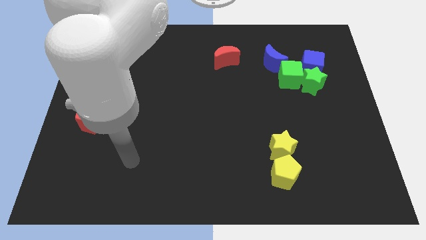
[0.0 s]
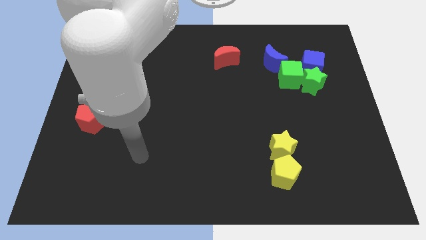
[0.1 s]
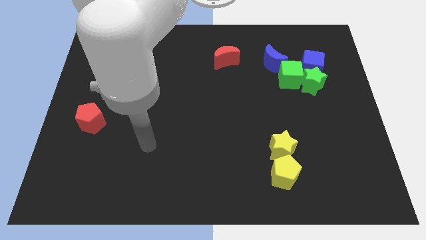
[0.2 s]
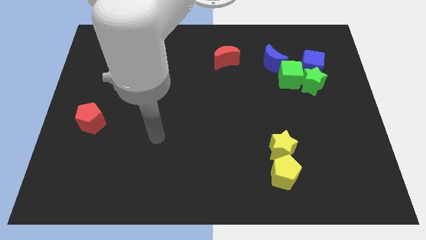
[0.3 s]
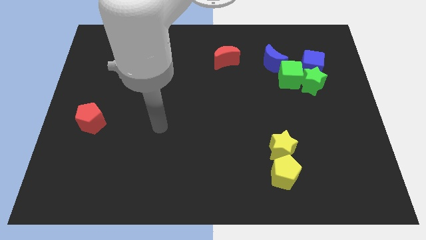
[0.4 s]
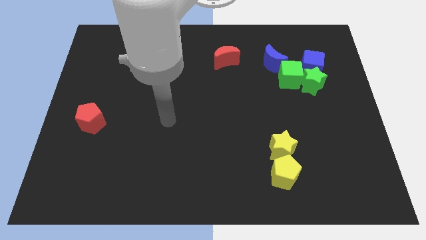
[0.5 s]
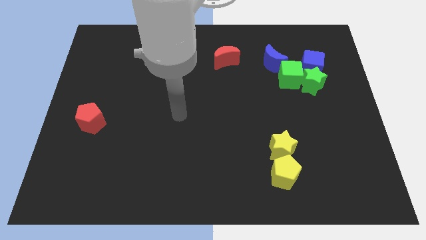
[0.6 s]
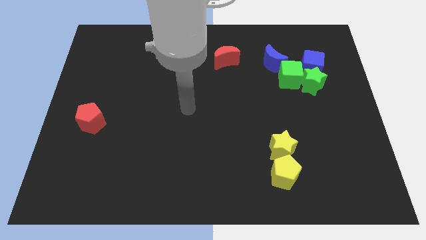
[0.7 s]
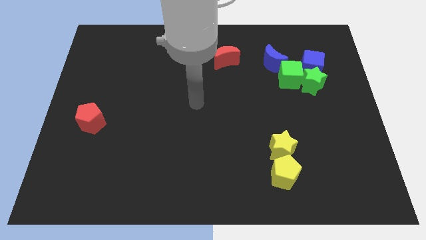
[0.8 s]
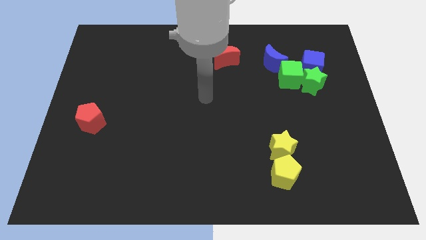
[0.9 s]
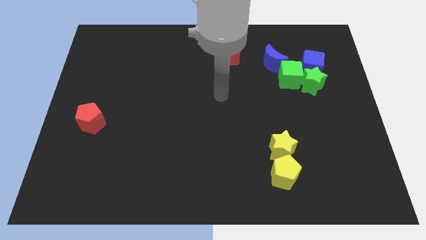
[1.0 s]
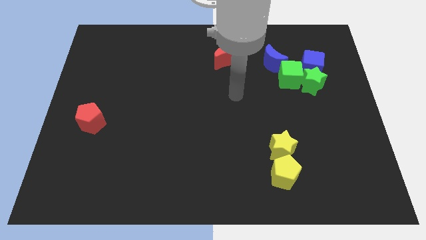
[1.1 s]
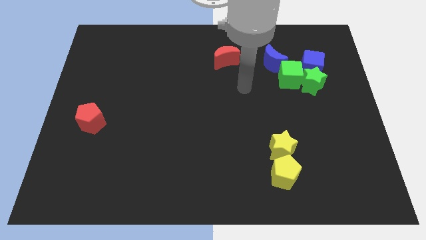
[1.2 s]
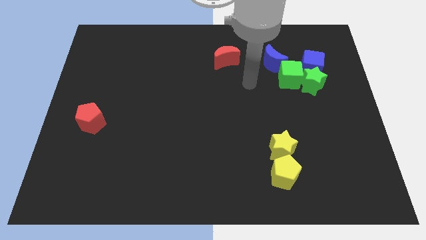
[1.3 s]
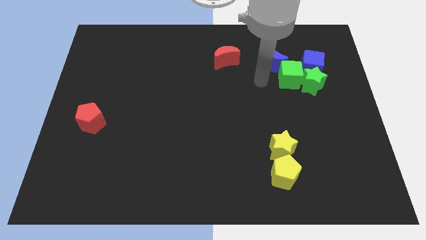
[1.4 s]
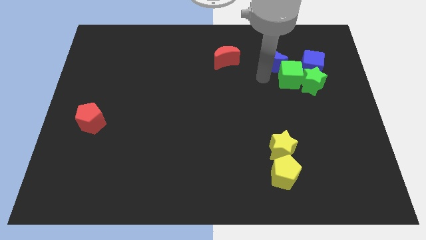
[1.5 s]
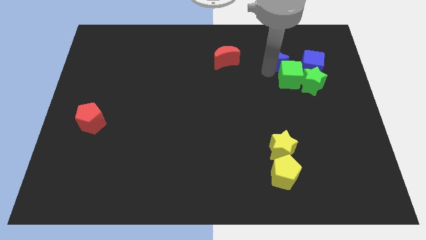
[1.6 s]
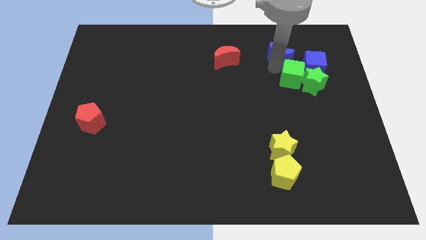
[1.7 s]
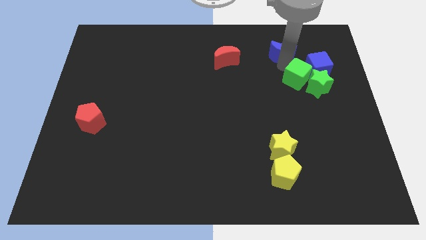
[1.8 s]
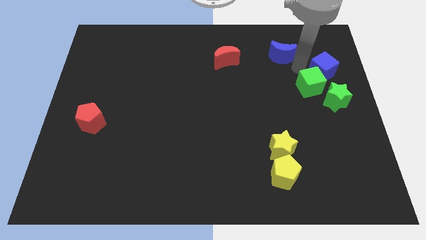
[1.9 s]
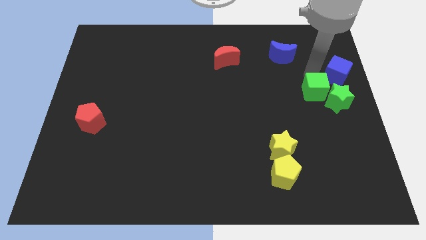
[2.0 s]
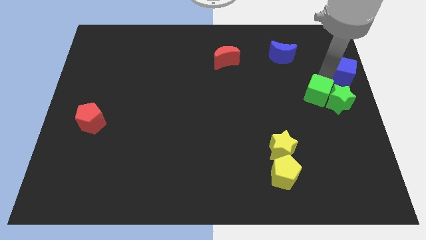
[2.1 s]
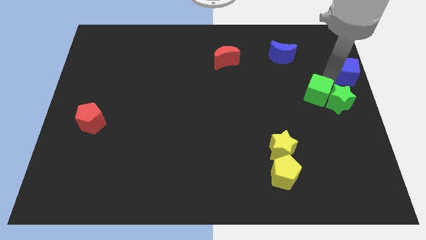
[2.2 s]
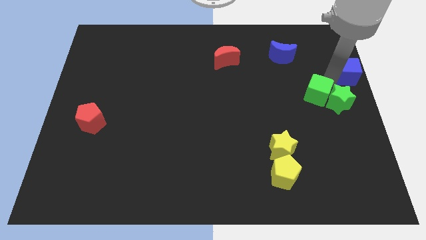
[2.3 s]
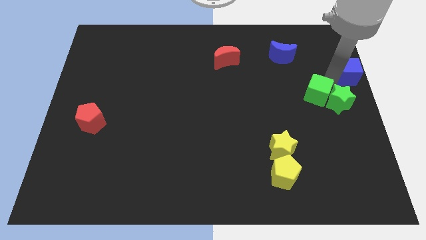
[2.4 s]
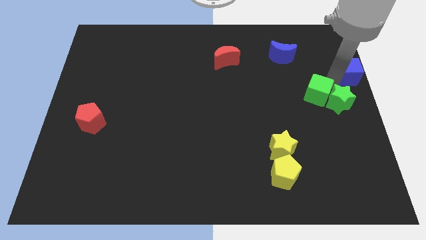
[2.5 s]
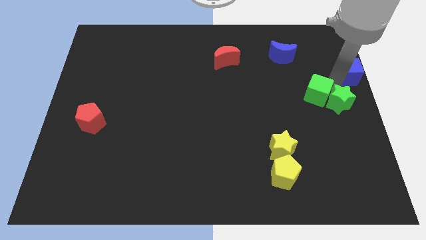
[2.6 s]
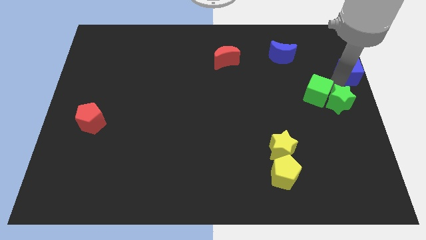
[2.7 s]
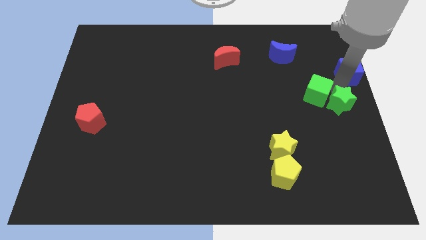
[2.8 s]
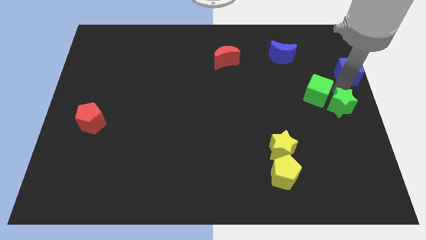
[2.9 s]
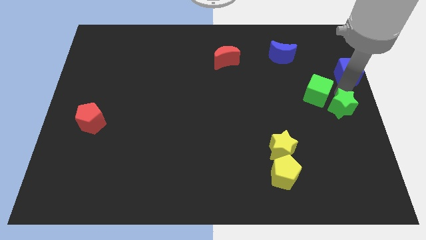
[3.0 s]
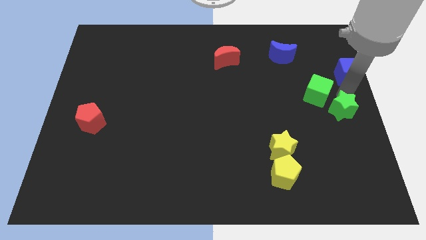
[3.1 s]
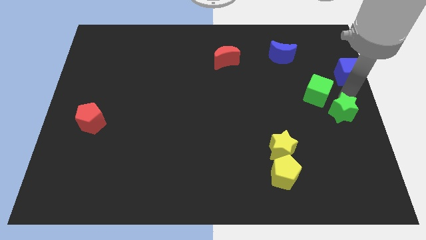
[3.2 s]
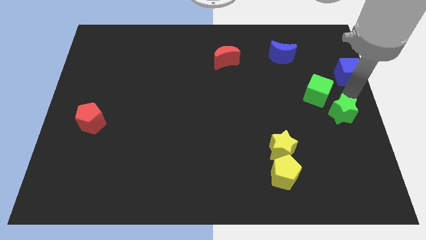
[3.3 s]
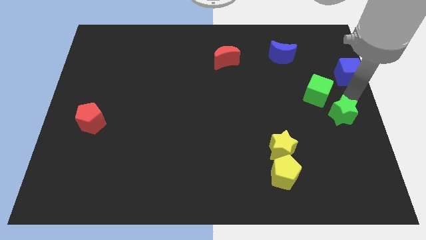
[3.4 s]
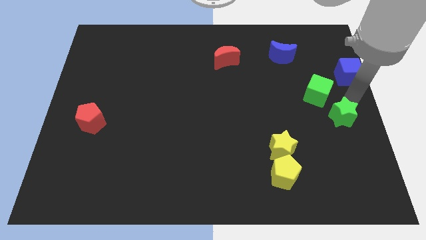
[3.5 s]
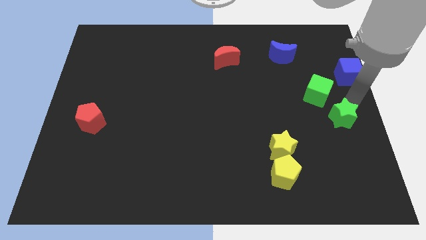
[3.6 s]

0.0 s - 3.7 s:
separate the green star from the blue cube and green cube

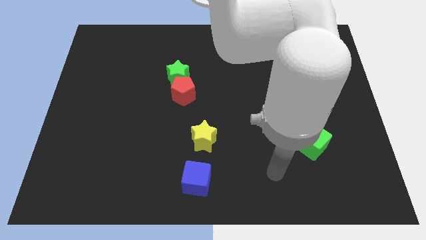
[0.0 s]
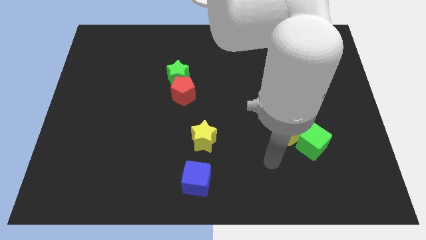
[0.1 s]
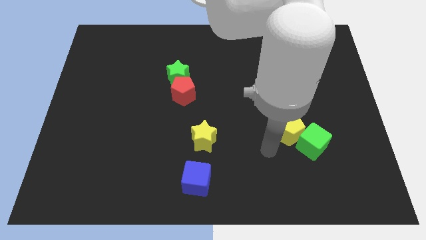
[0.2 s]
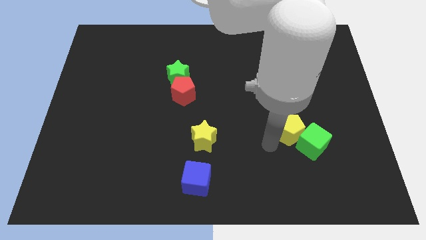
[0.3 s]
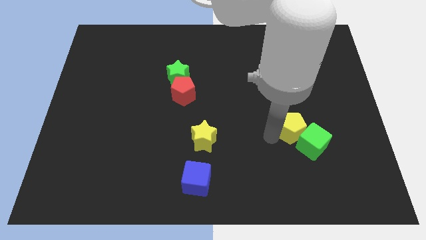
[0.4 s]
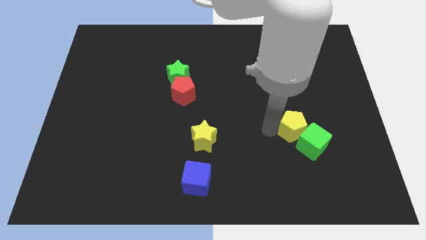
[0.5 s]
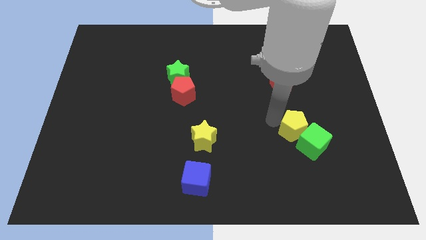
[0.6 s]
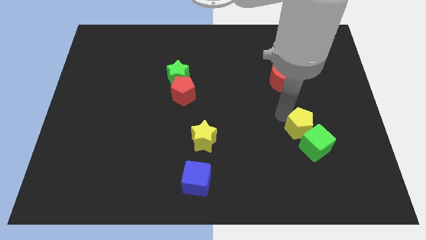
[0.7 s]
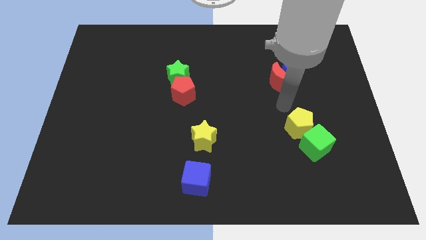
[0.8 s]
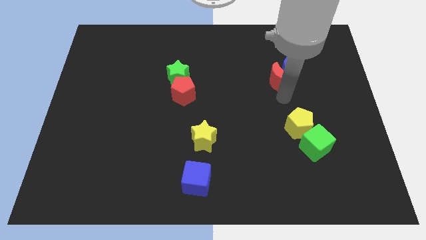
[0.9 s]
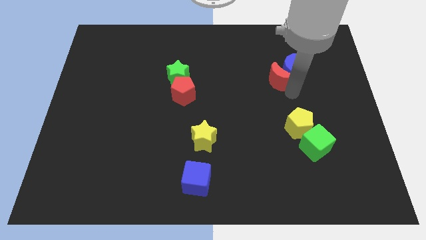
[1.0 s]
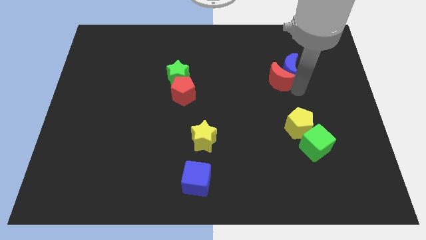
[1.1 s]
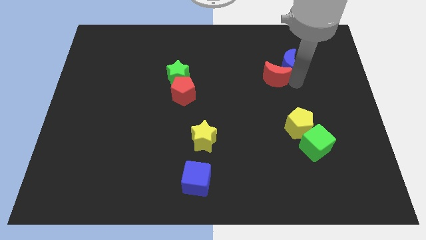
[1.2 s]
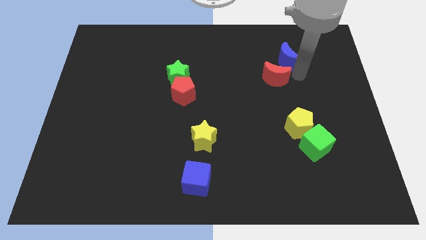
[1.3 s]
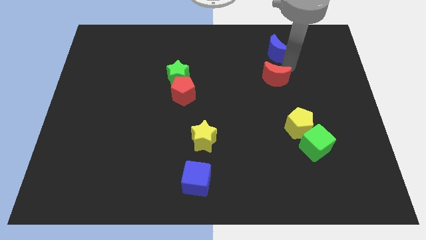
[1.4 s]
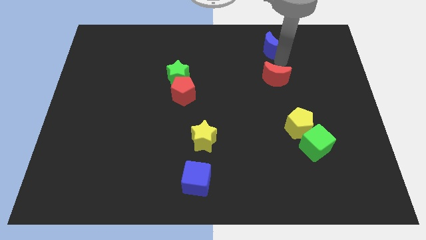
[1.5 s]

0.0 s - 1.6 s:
pull the red moon apart from the blue moon

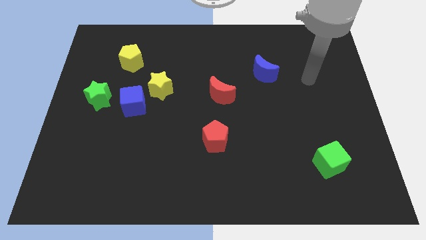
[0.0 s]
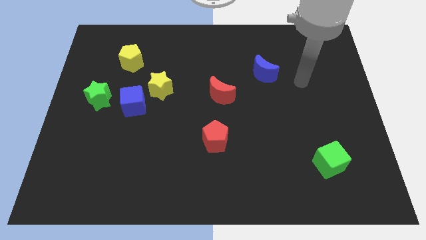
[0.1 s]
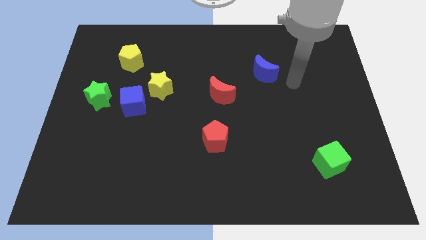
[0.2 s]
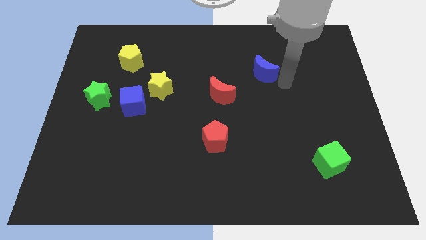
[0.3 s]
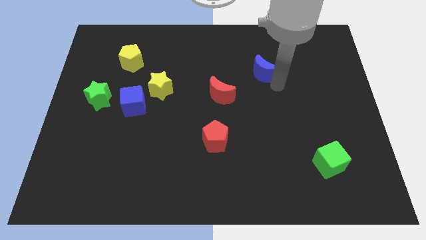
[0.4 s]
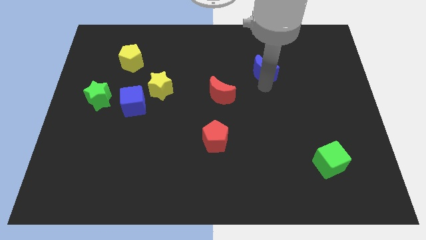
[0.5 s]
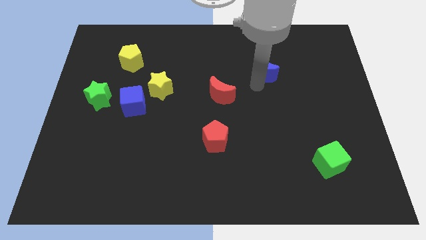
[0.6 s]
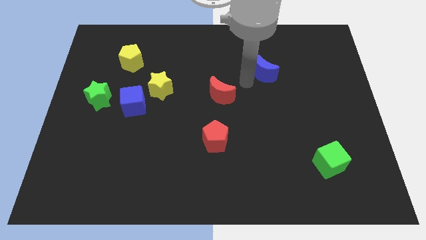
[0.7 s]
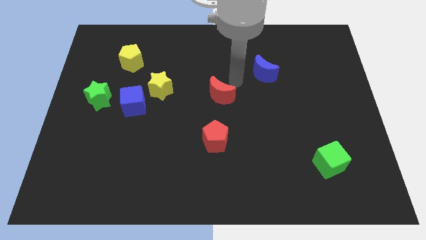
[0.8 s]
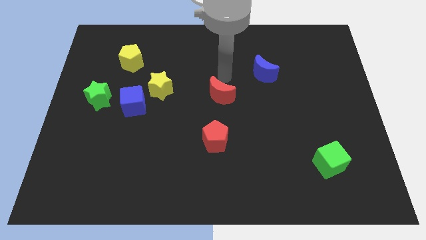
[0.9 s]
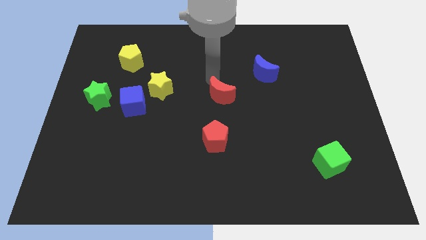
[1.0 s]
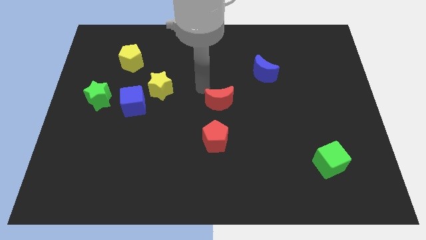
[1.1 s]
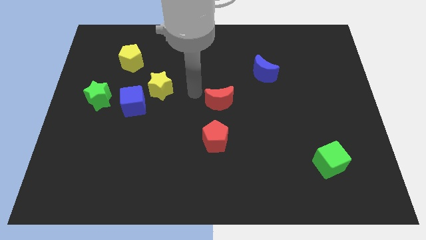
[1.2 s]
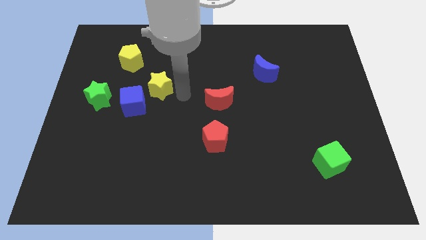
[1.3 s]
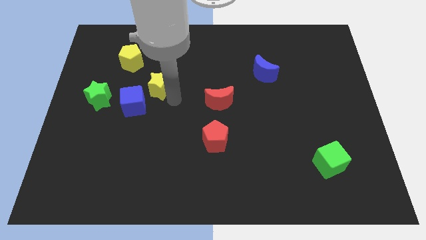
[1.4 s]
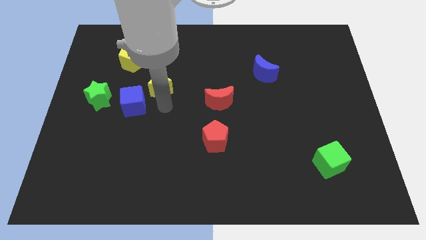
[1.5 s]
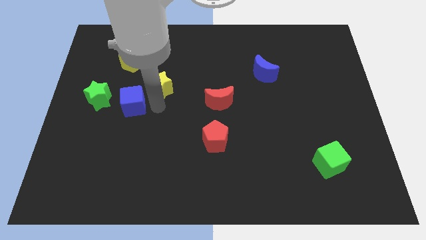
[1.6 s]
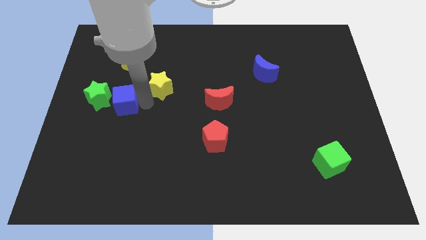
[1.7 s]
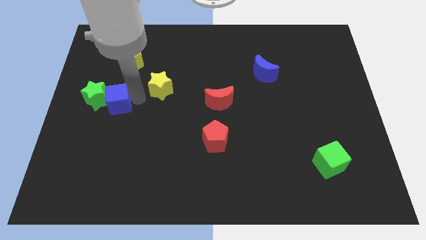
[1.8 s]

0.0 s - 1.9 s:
pull the yellow star apart from the blue cube

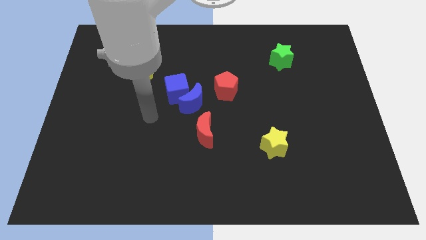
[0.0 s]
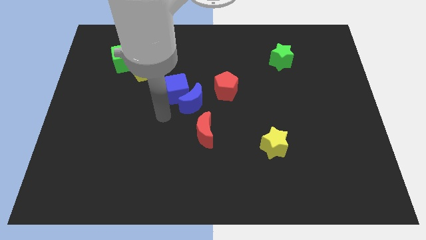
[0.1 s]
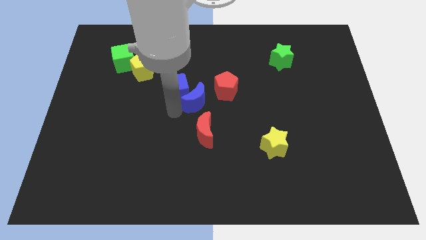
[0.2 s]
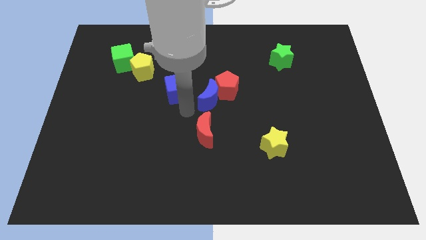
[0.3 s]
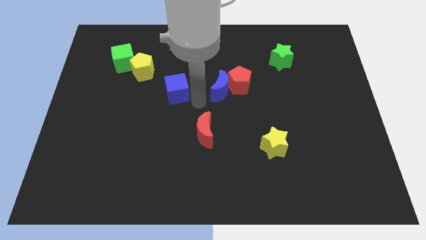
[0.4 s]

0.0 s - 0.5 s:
pull the blue cube apart from the blue moon

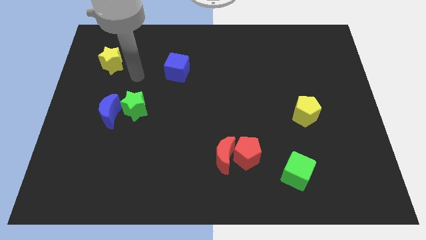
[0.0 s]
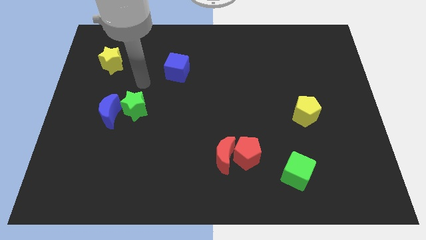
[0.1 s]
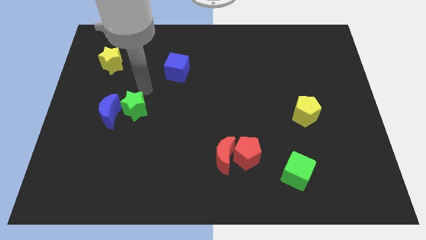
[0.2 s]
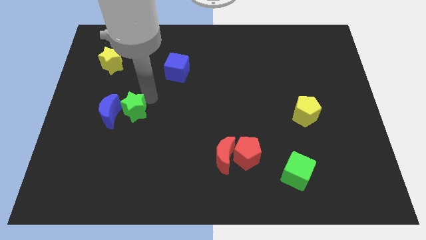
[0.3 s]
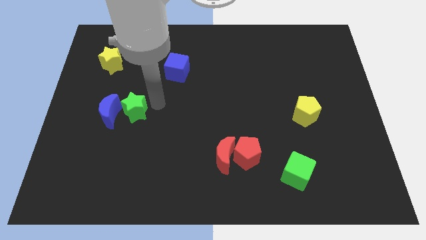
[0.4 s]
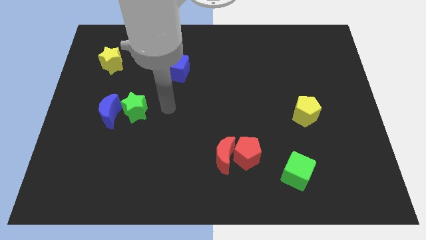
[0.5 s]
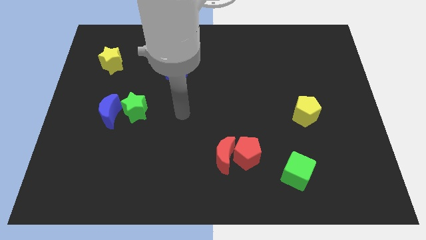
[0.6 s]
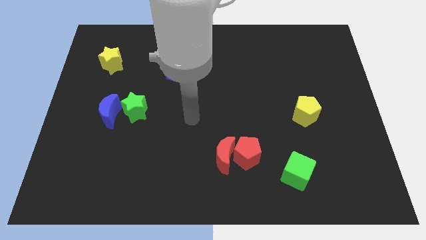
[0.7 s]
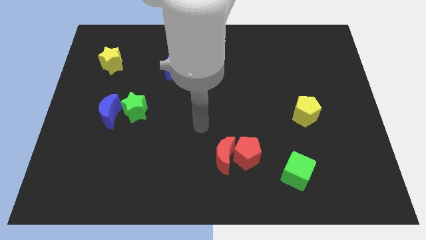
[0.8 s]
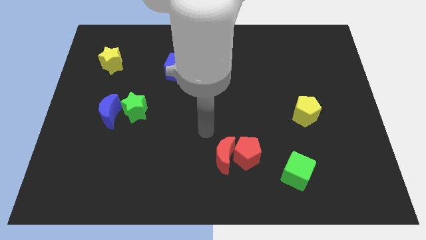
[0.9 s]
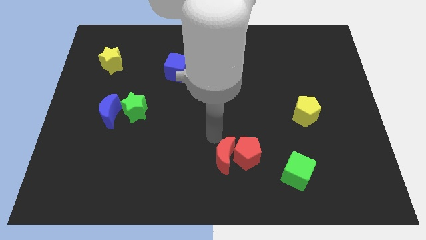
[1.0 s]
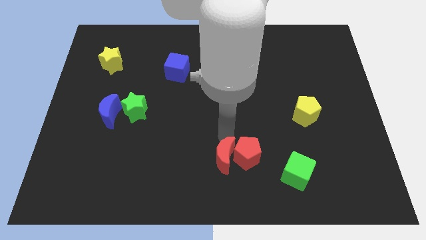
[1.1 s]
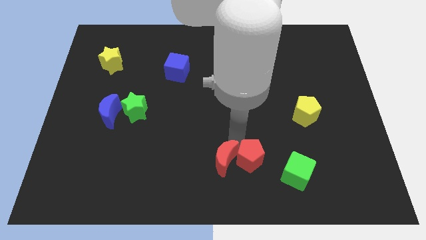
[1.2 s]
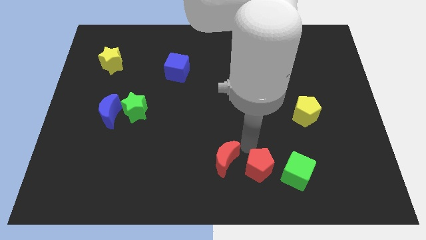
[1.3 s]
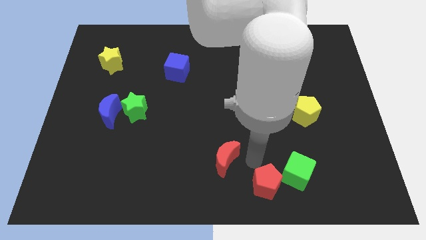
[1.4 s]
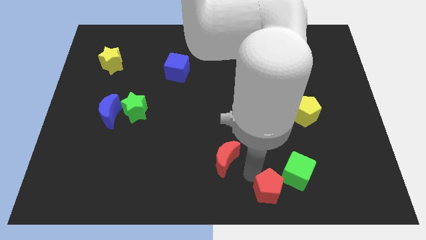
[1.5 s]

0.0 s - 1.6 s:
pull the red moon apart from the red pentagon
